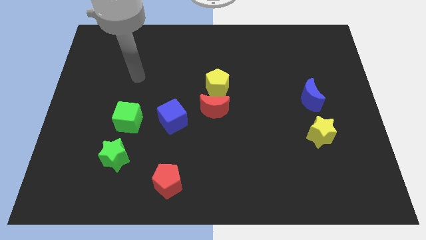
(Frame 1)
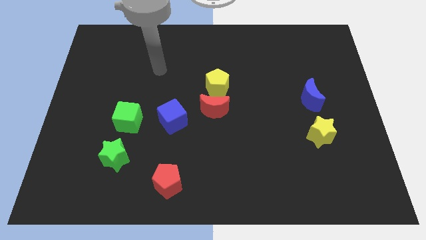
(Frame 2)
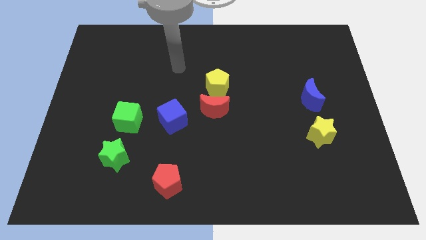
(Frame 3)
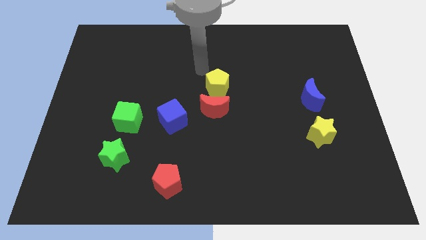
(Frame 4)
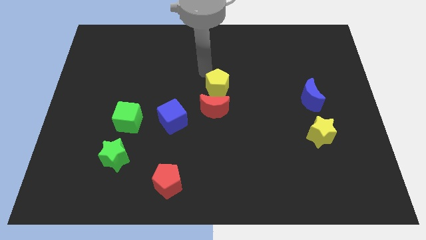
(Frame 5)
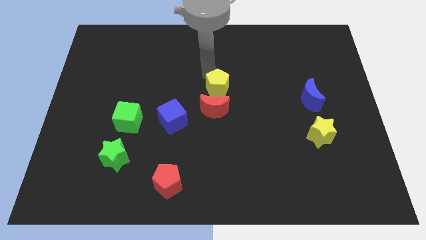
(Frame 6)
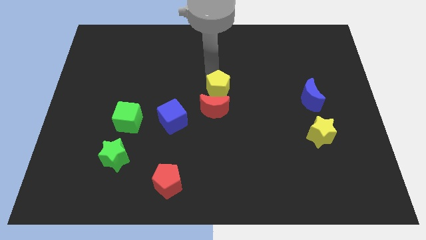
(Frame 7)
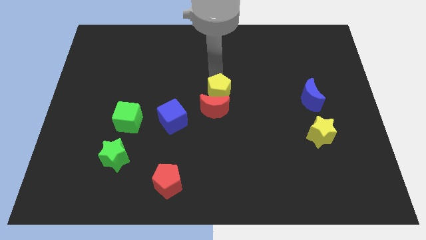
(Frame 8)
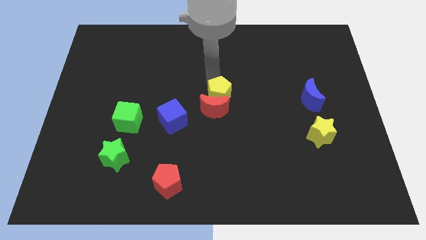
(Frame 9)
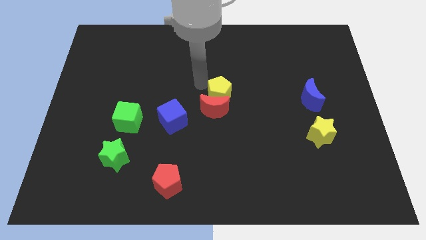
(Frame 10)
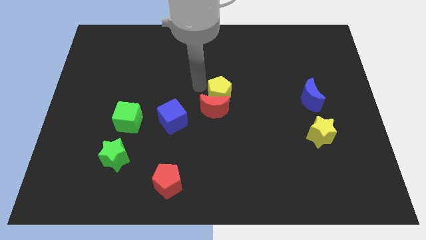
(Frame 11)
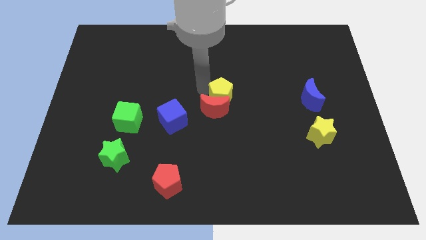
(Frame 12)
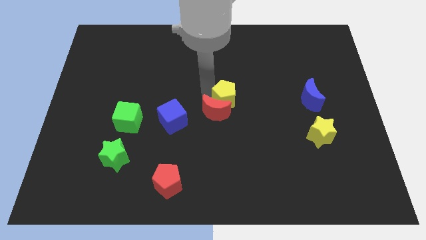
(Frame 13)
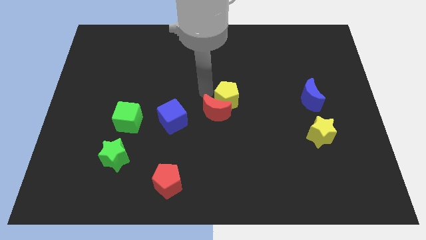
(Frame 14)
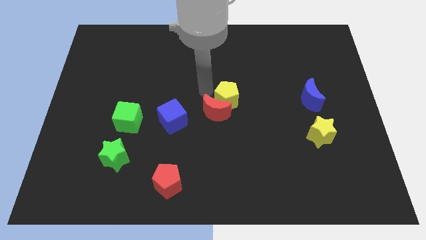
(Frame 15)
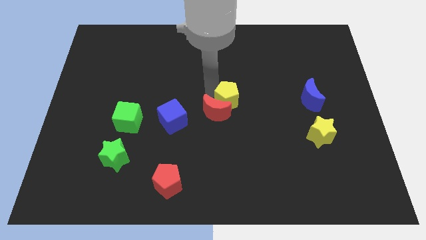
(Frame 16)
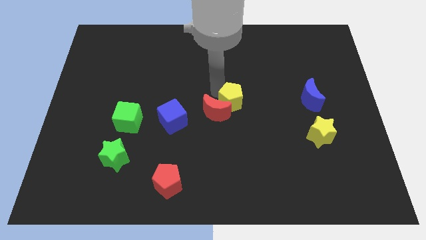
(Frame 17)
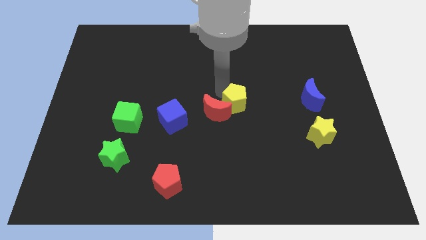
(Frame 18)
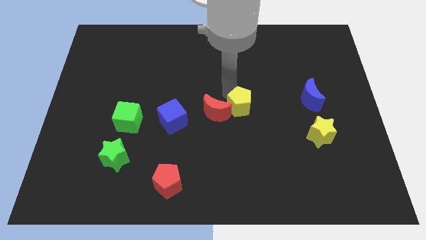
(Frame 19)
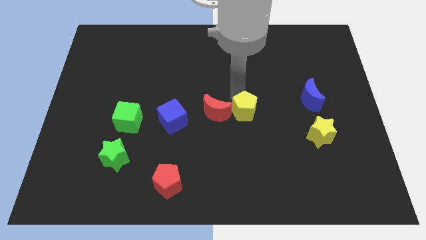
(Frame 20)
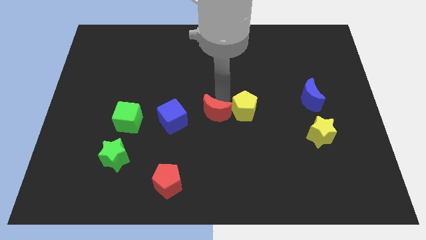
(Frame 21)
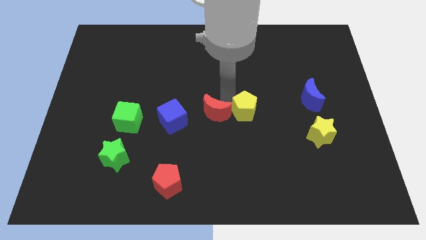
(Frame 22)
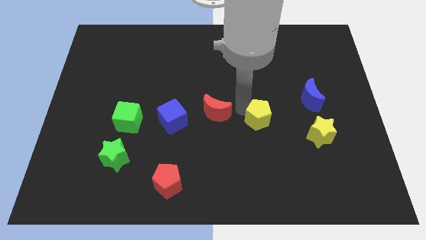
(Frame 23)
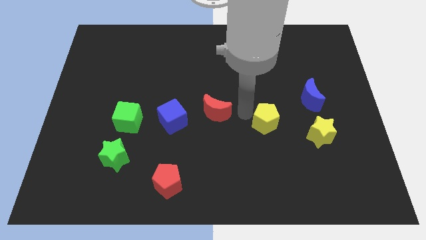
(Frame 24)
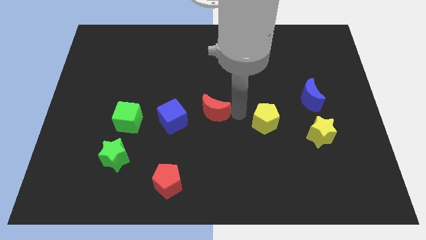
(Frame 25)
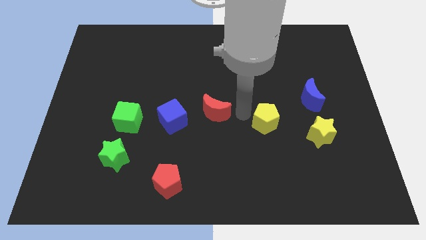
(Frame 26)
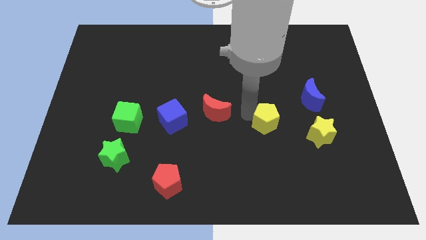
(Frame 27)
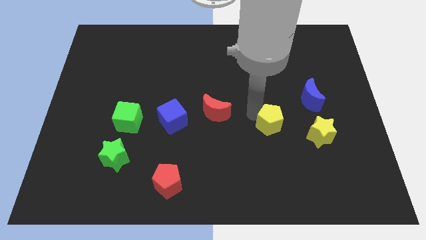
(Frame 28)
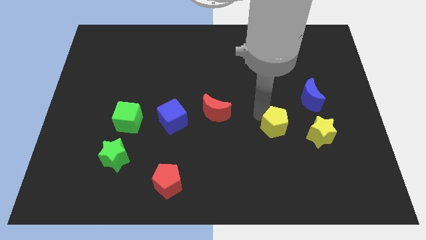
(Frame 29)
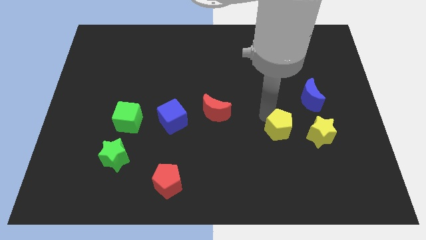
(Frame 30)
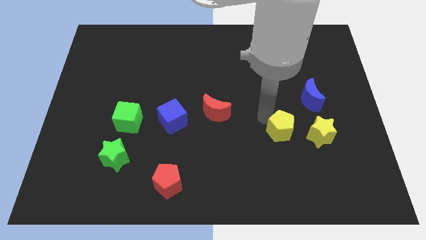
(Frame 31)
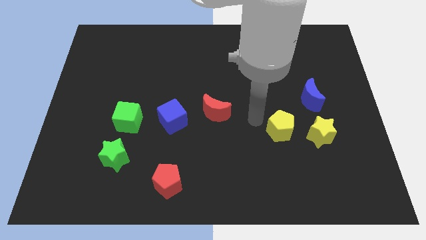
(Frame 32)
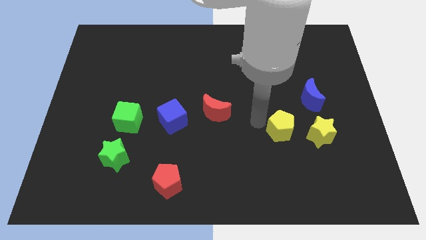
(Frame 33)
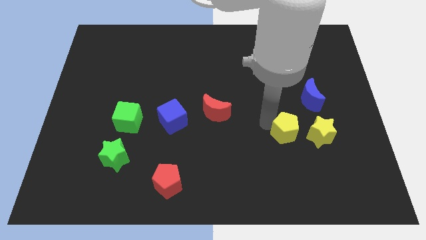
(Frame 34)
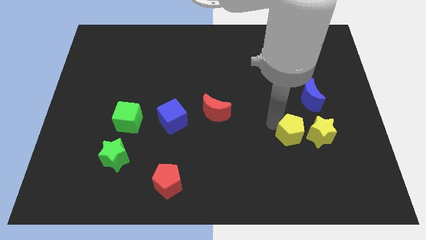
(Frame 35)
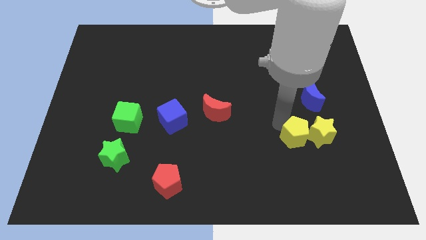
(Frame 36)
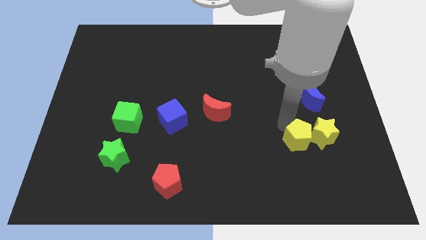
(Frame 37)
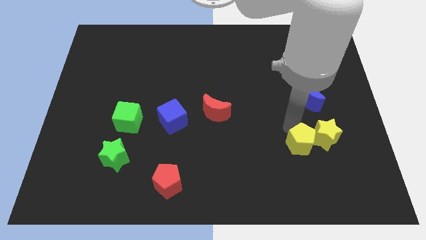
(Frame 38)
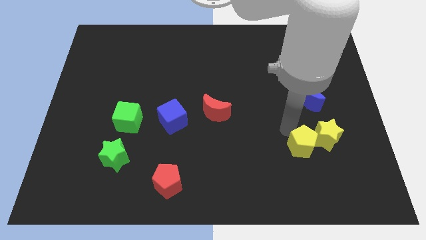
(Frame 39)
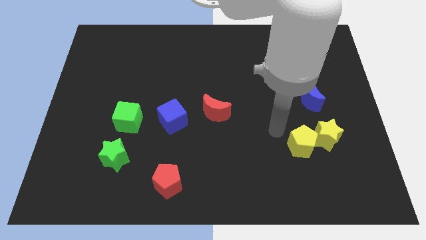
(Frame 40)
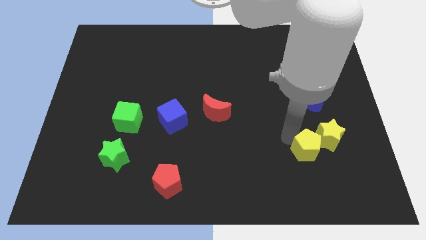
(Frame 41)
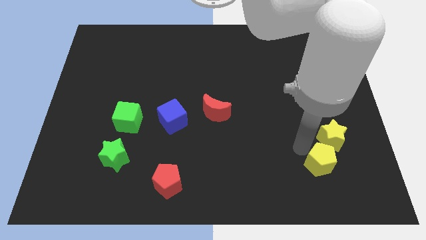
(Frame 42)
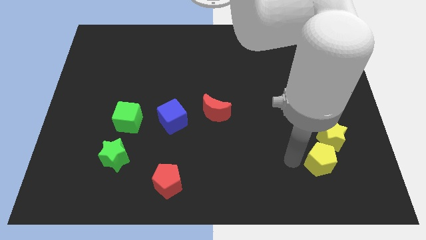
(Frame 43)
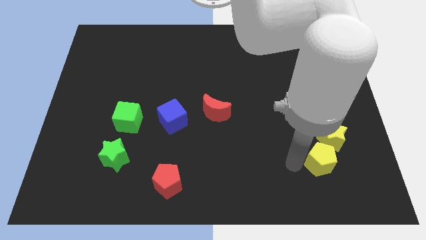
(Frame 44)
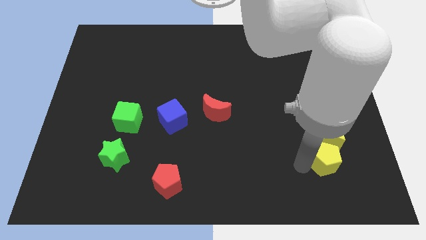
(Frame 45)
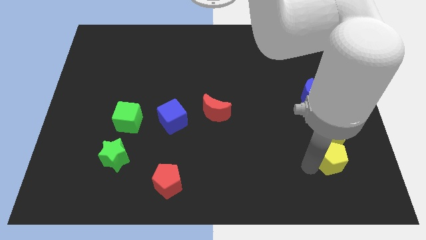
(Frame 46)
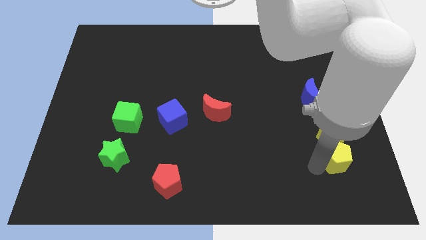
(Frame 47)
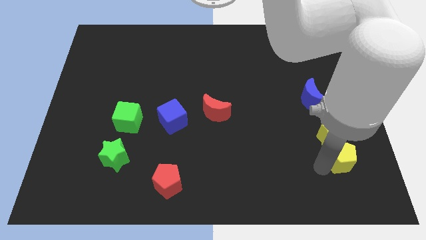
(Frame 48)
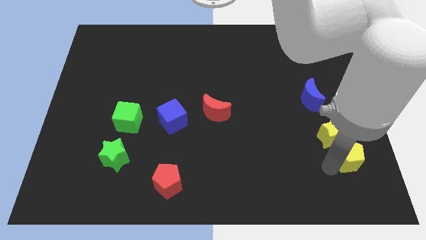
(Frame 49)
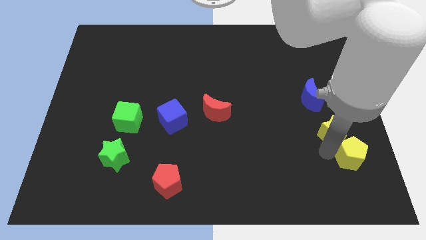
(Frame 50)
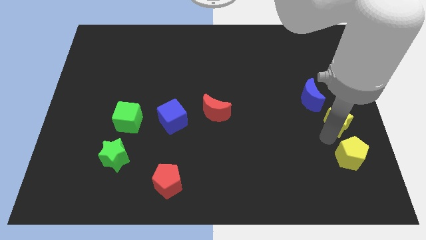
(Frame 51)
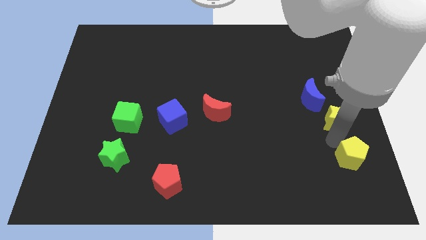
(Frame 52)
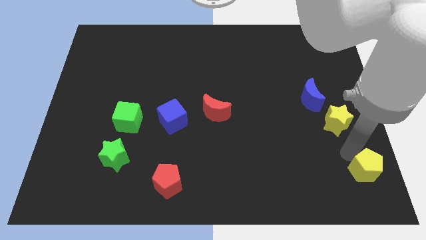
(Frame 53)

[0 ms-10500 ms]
move the yellow pentagon to the bottom right corner
